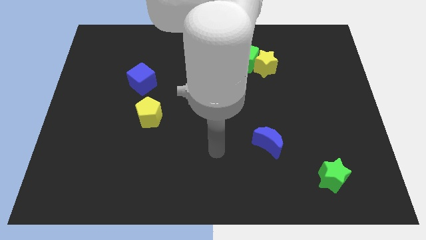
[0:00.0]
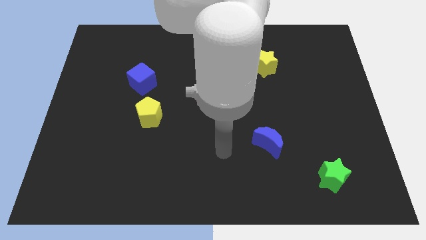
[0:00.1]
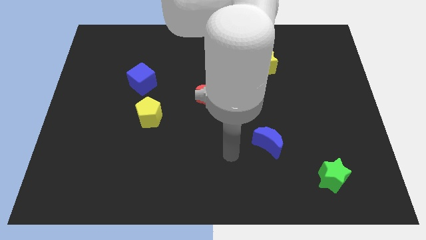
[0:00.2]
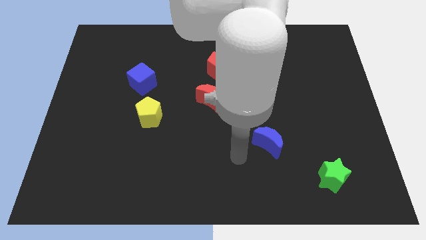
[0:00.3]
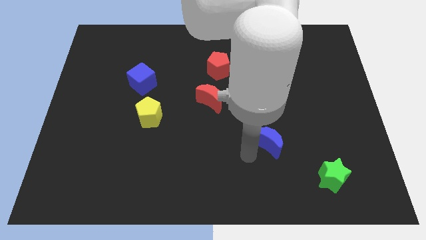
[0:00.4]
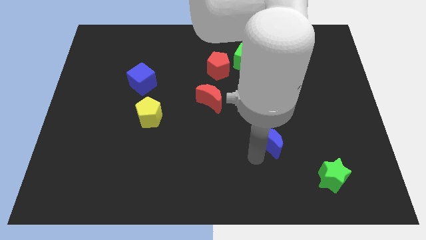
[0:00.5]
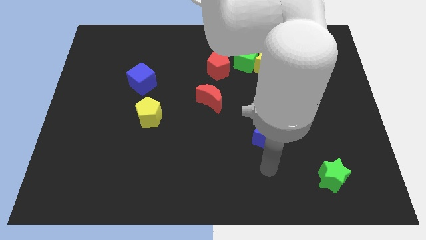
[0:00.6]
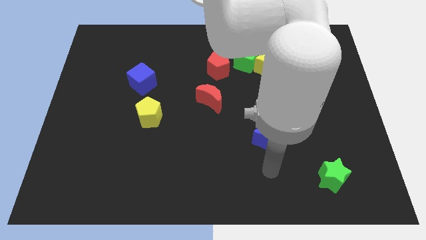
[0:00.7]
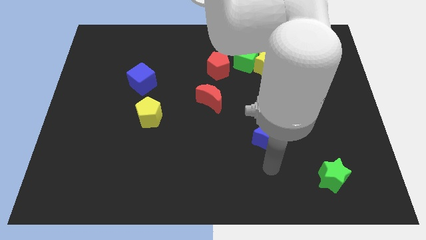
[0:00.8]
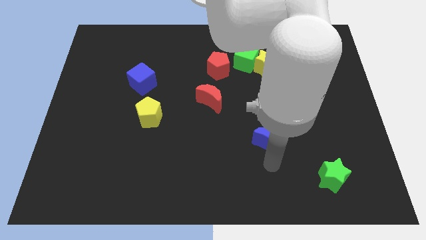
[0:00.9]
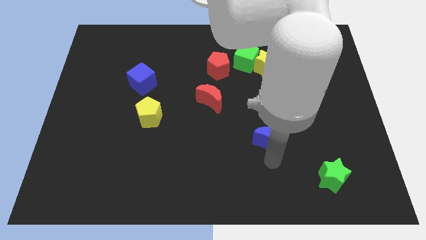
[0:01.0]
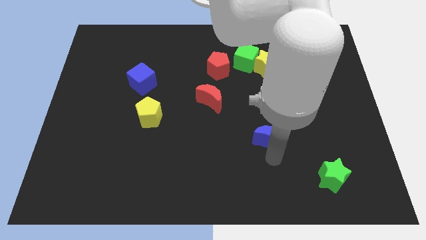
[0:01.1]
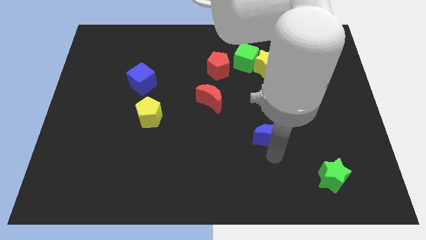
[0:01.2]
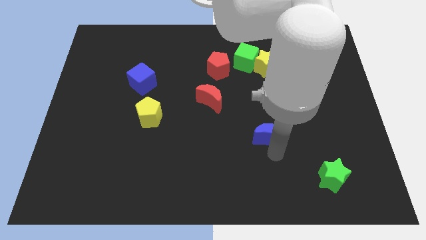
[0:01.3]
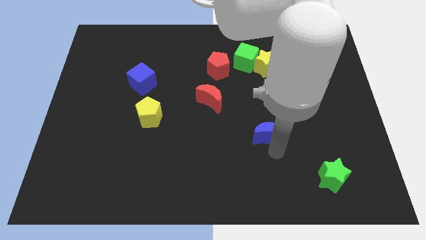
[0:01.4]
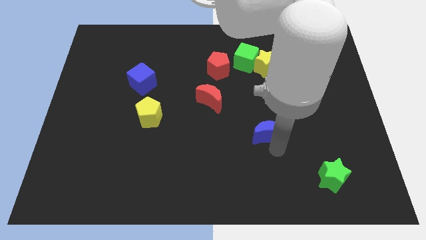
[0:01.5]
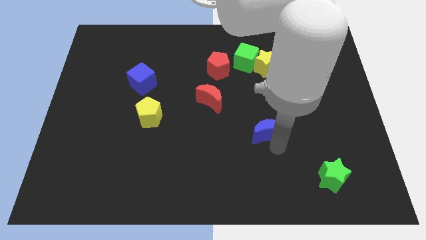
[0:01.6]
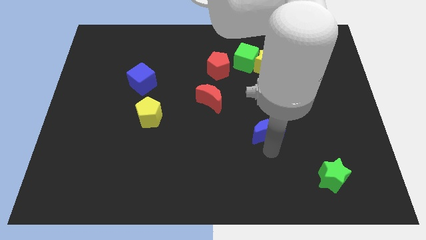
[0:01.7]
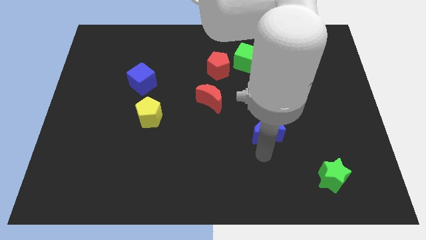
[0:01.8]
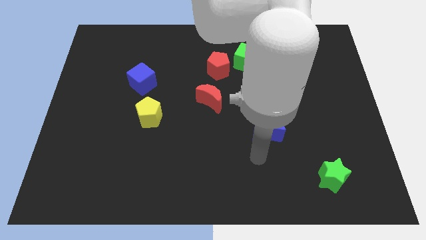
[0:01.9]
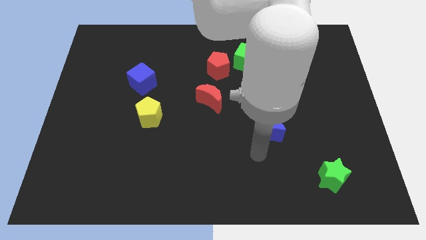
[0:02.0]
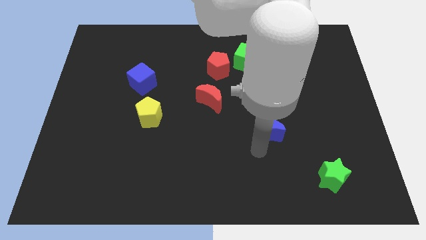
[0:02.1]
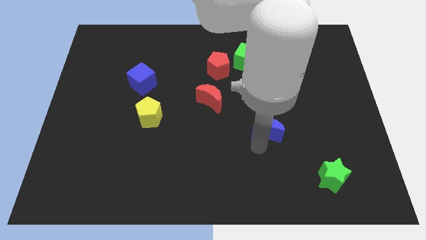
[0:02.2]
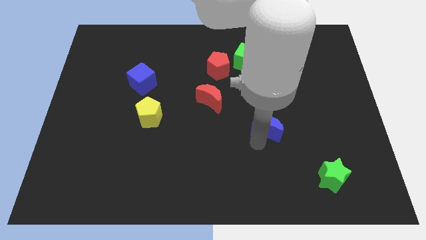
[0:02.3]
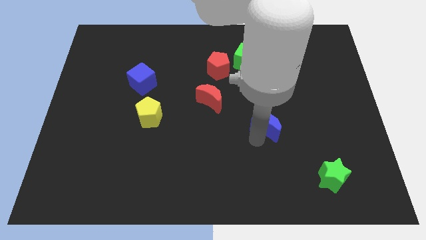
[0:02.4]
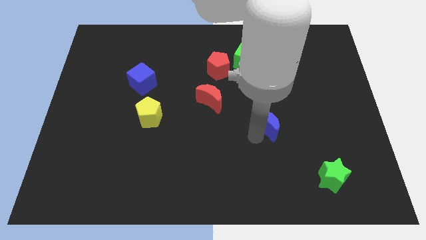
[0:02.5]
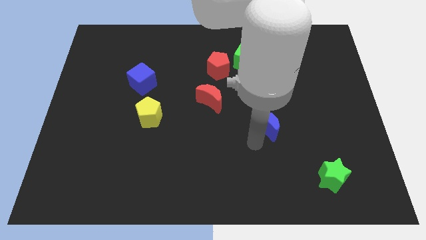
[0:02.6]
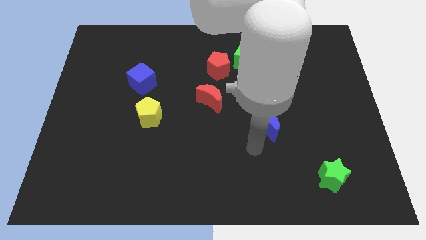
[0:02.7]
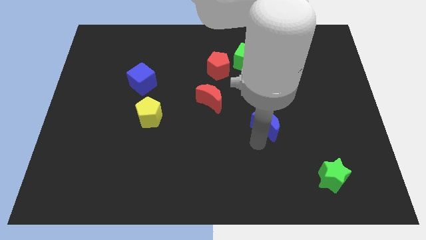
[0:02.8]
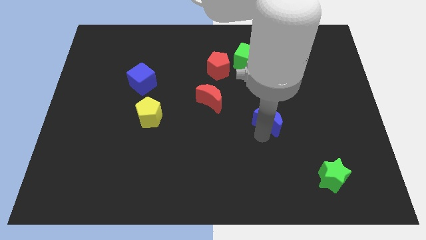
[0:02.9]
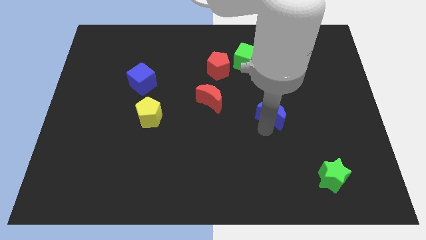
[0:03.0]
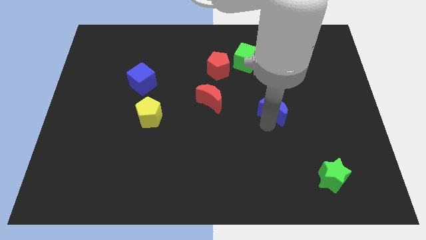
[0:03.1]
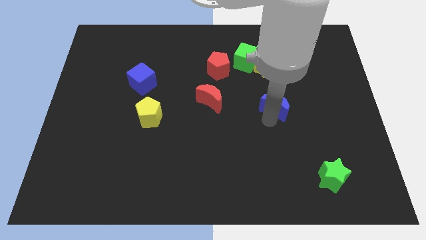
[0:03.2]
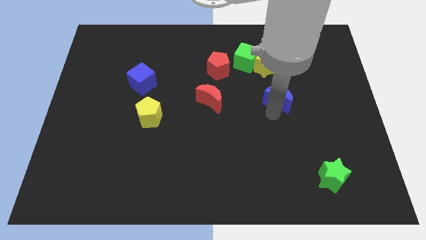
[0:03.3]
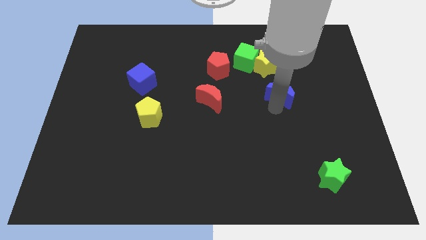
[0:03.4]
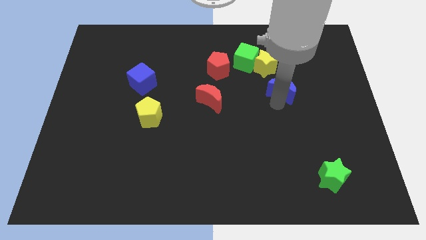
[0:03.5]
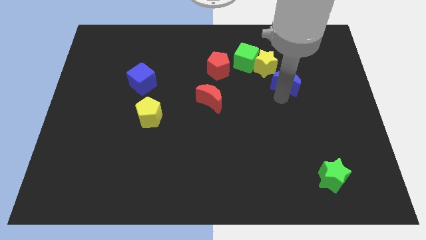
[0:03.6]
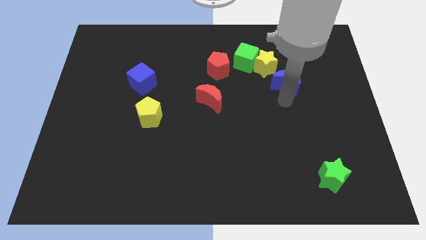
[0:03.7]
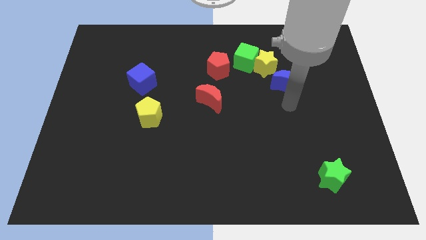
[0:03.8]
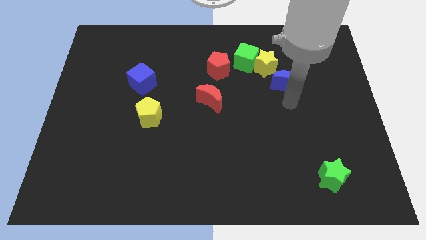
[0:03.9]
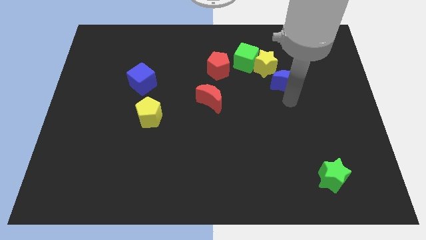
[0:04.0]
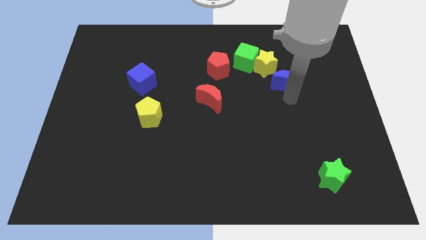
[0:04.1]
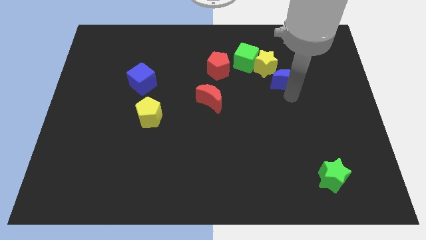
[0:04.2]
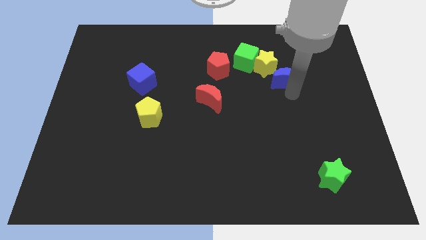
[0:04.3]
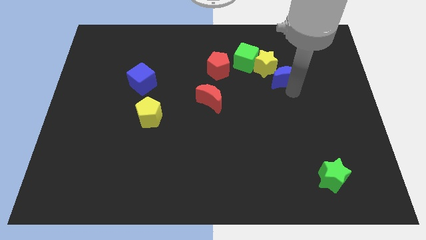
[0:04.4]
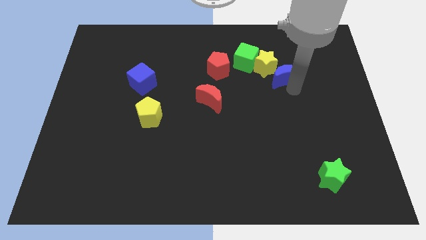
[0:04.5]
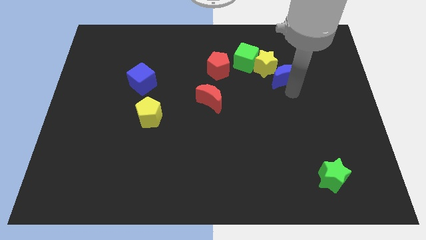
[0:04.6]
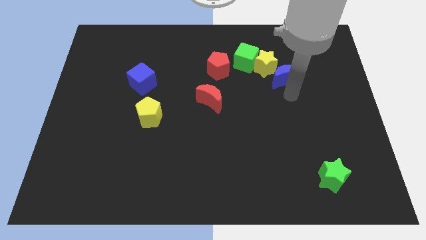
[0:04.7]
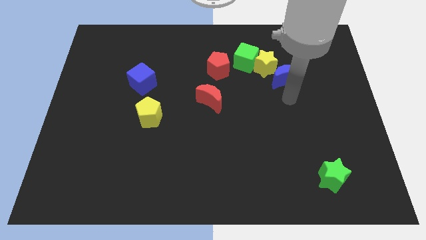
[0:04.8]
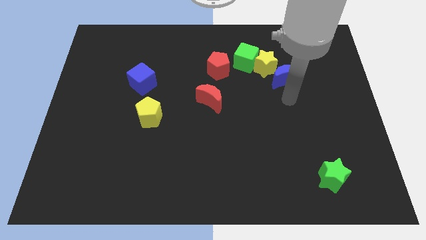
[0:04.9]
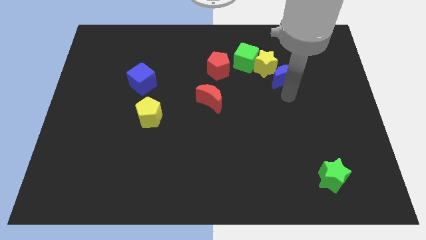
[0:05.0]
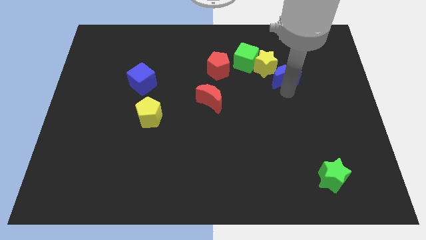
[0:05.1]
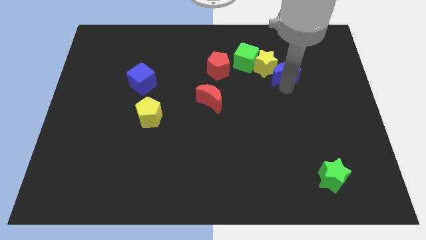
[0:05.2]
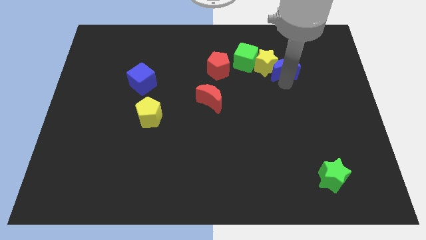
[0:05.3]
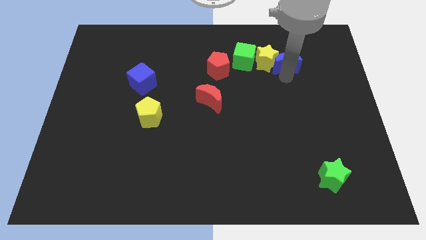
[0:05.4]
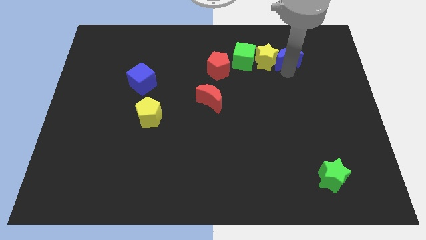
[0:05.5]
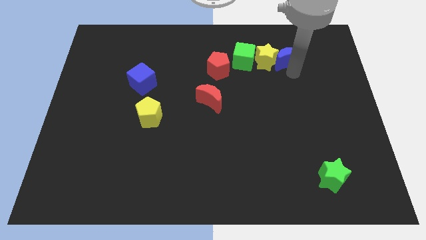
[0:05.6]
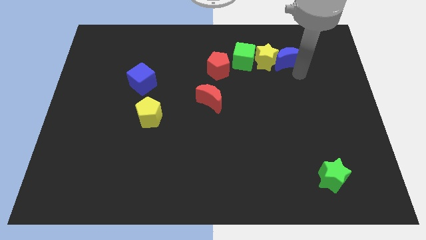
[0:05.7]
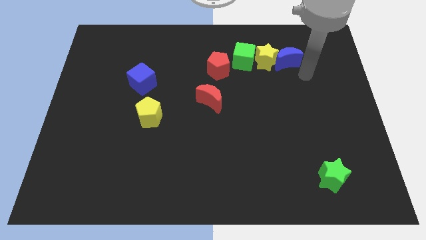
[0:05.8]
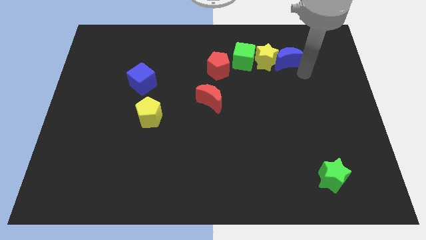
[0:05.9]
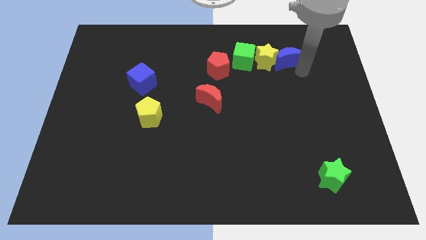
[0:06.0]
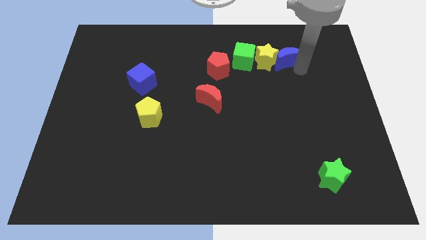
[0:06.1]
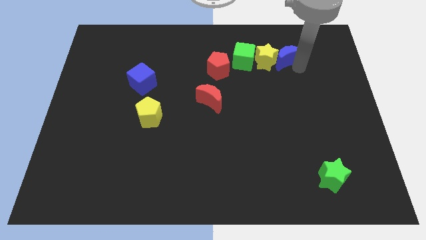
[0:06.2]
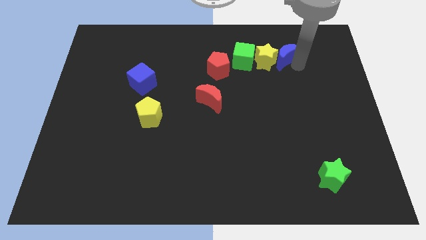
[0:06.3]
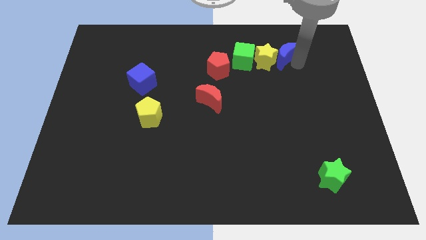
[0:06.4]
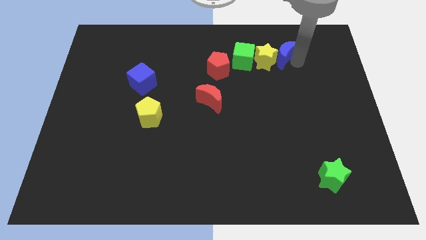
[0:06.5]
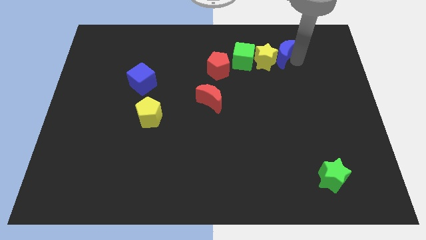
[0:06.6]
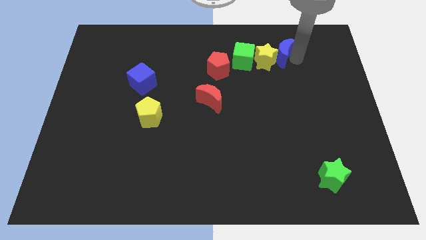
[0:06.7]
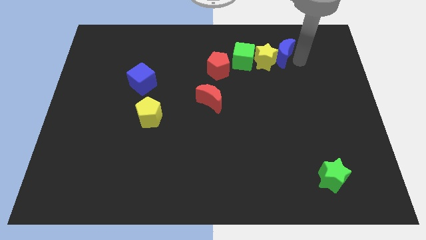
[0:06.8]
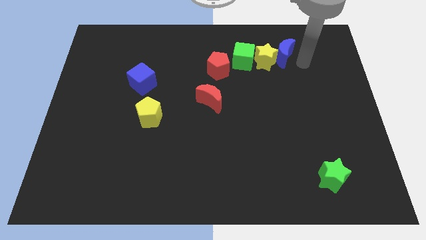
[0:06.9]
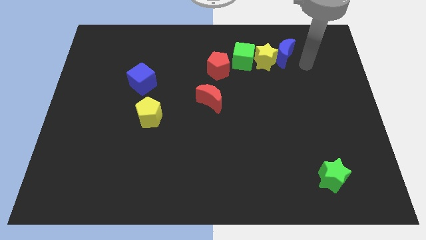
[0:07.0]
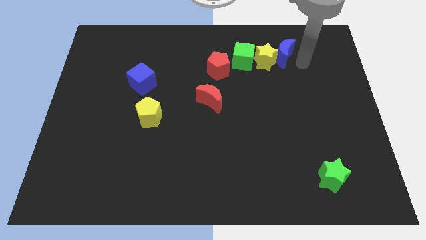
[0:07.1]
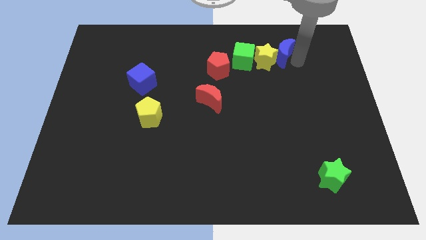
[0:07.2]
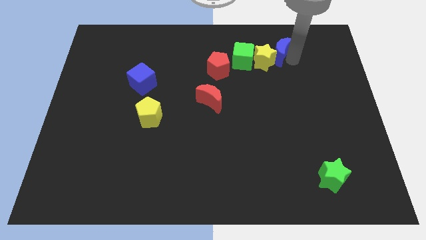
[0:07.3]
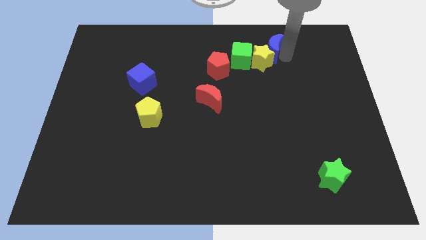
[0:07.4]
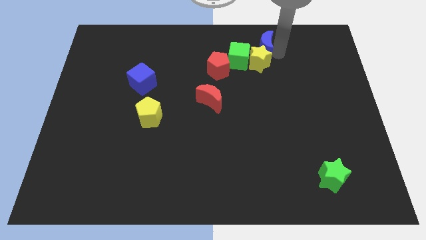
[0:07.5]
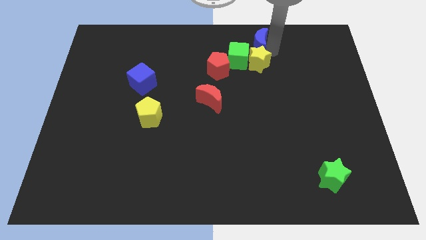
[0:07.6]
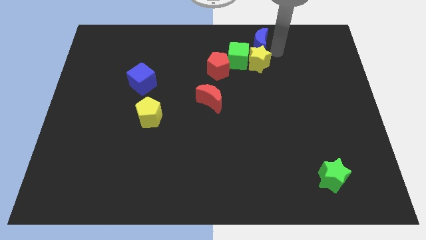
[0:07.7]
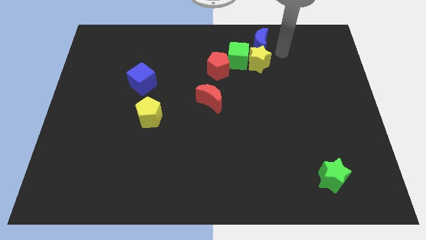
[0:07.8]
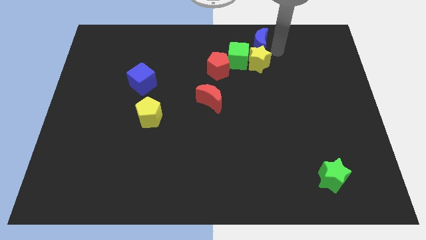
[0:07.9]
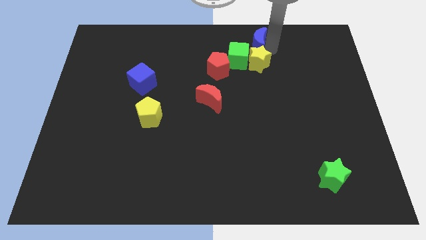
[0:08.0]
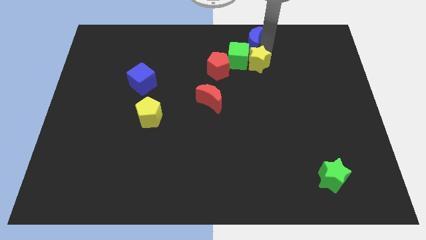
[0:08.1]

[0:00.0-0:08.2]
move the blue moon to the towards your base
